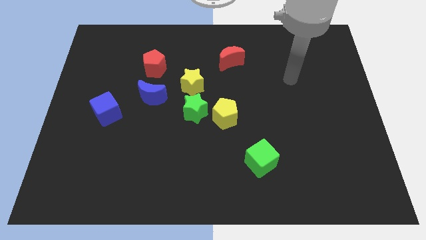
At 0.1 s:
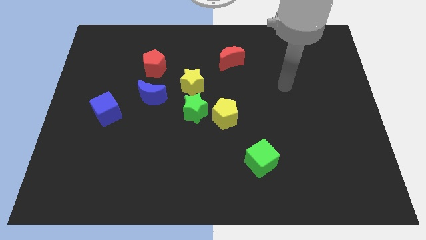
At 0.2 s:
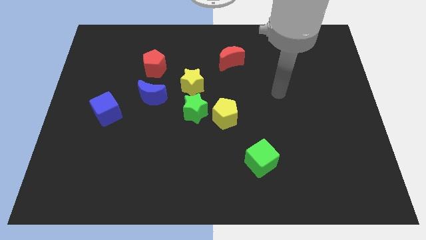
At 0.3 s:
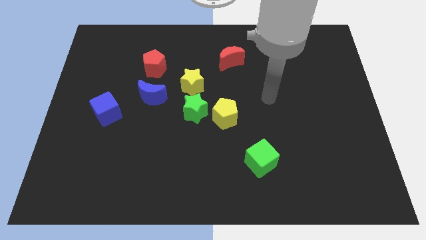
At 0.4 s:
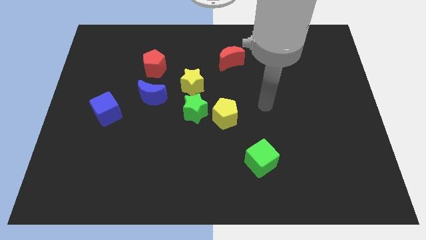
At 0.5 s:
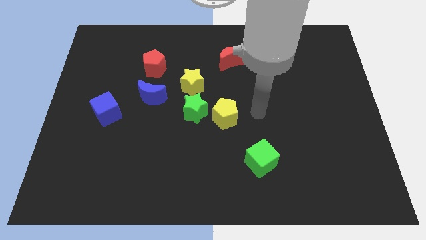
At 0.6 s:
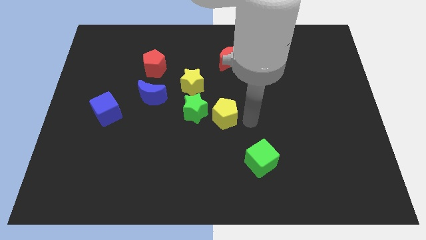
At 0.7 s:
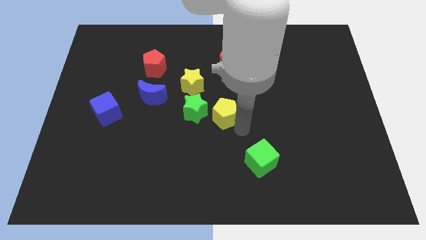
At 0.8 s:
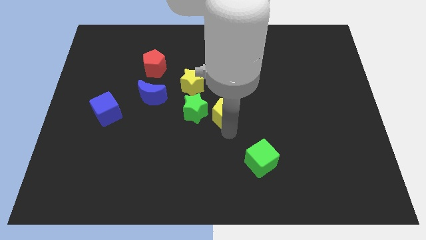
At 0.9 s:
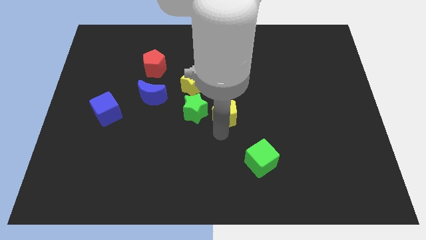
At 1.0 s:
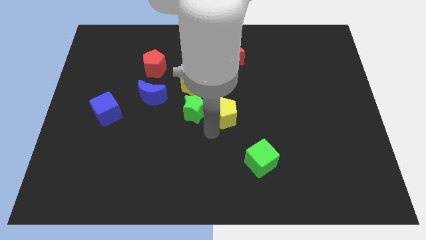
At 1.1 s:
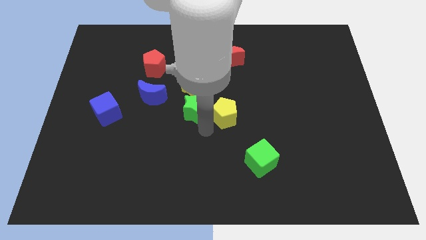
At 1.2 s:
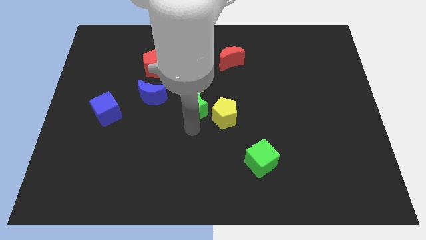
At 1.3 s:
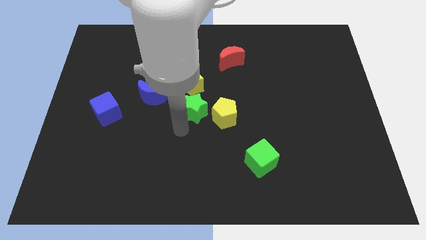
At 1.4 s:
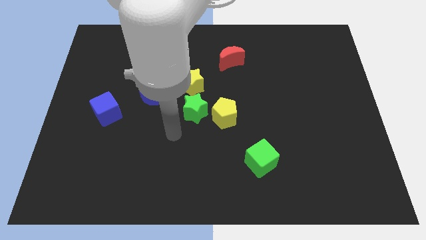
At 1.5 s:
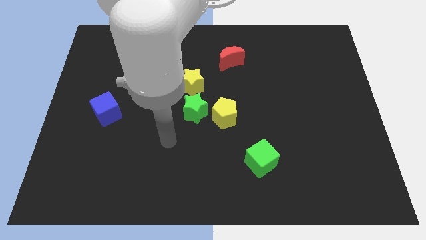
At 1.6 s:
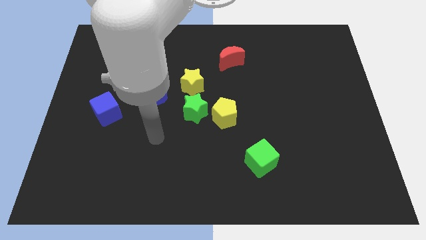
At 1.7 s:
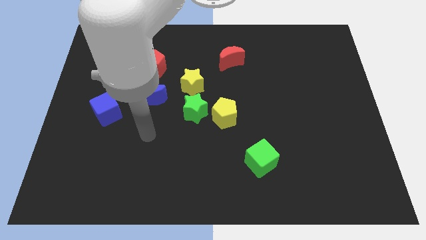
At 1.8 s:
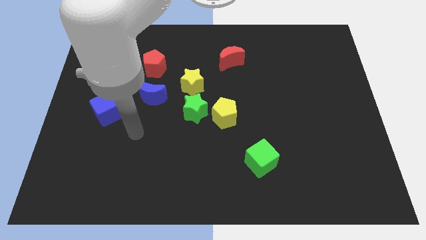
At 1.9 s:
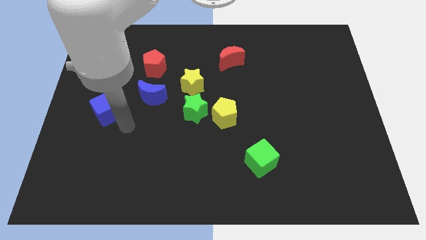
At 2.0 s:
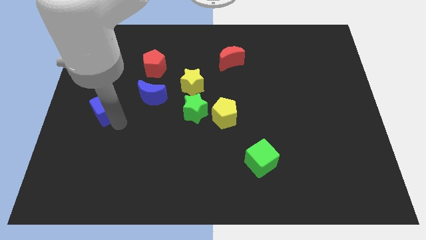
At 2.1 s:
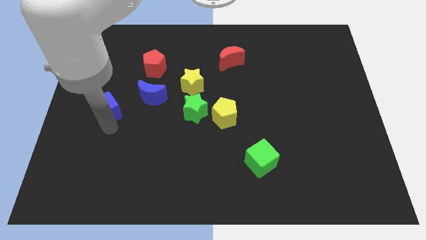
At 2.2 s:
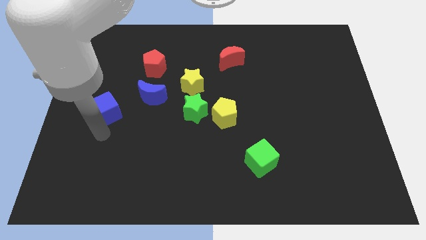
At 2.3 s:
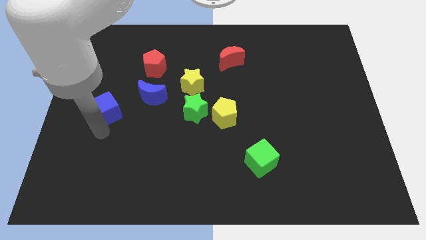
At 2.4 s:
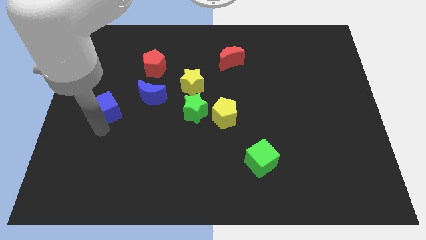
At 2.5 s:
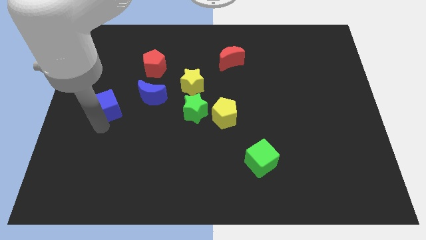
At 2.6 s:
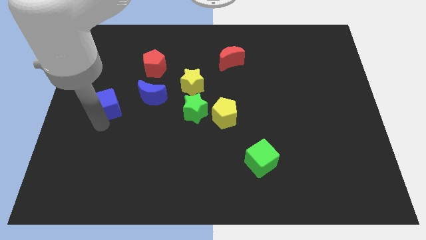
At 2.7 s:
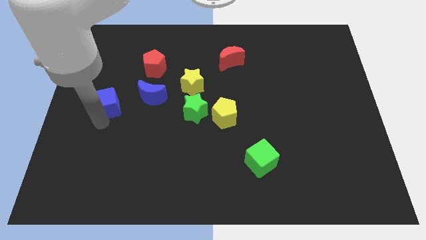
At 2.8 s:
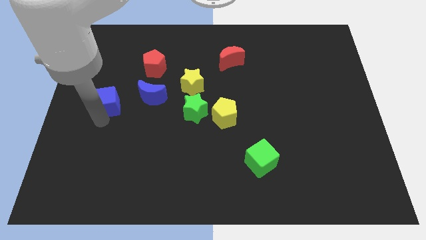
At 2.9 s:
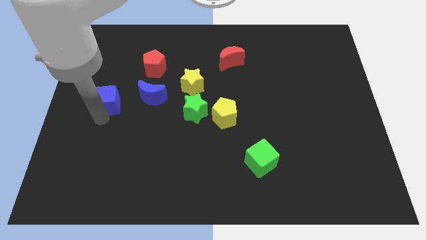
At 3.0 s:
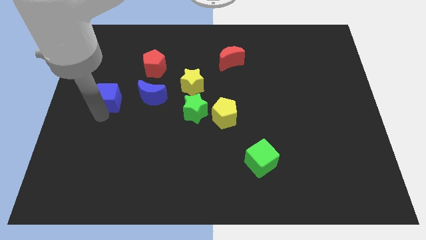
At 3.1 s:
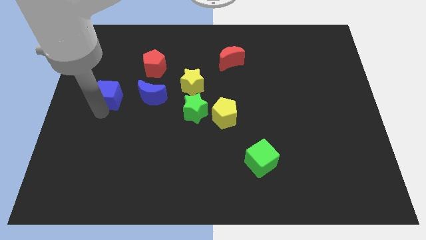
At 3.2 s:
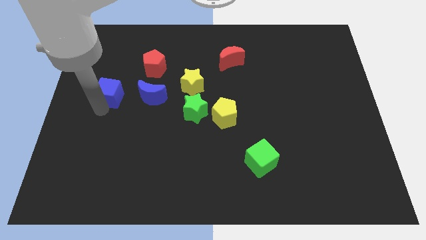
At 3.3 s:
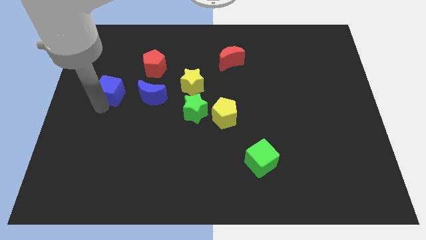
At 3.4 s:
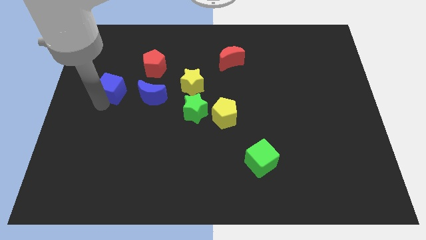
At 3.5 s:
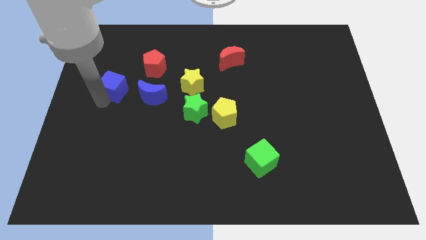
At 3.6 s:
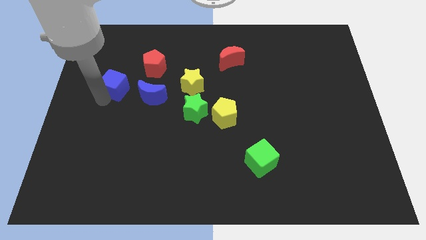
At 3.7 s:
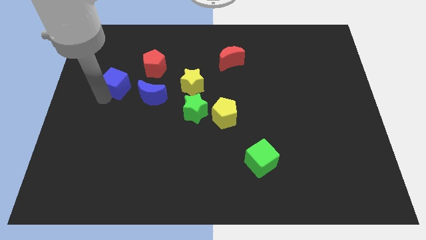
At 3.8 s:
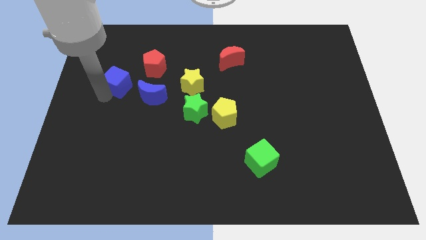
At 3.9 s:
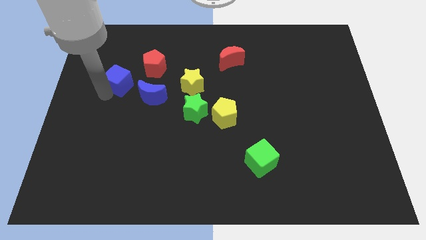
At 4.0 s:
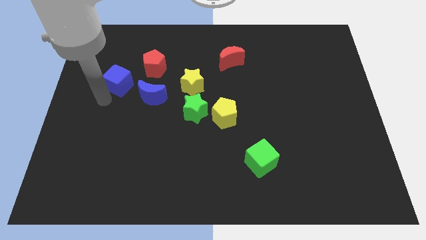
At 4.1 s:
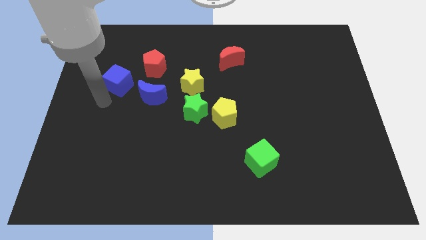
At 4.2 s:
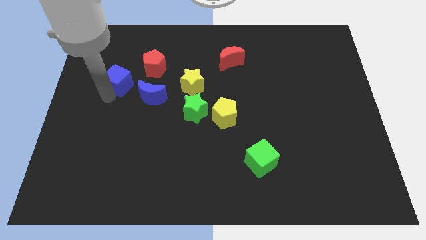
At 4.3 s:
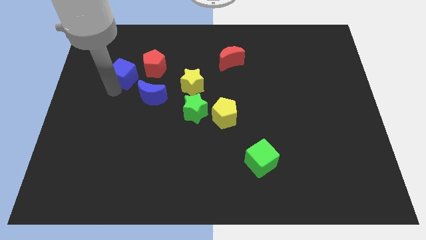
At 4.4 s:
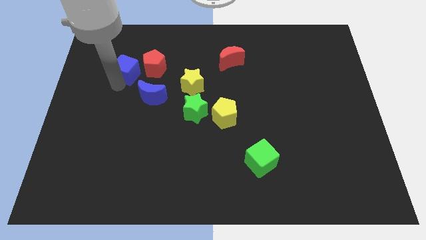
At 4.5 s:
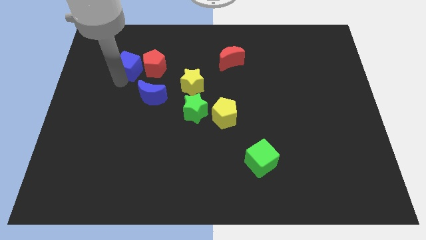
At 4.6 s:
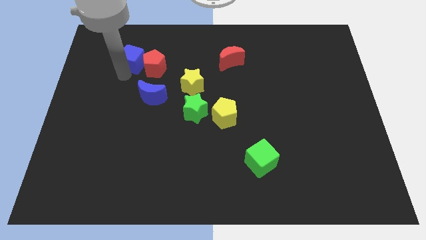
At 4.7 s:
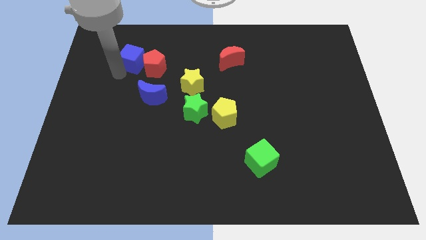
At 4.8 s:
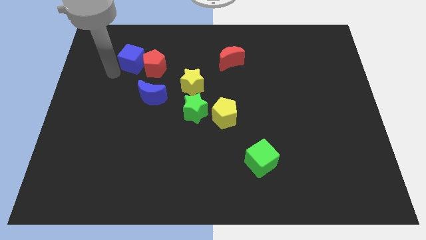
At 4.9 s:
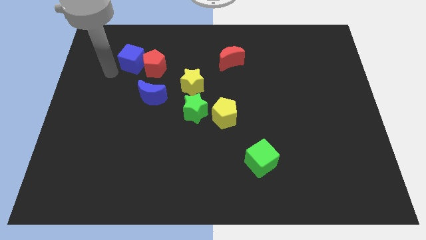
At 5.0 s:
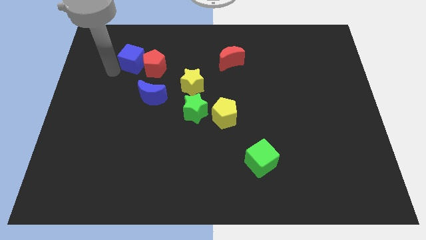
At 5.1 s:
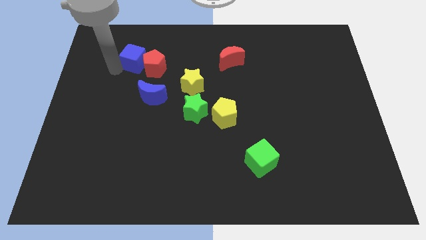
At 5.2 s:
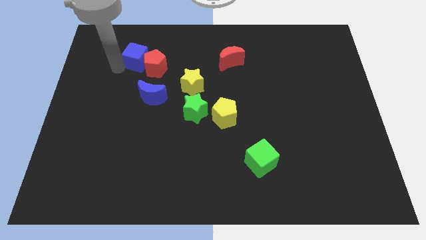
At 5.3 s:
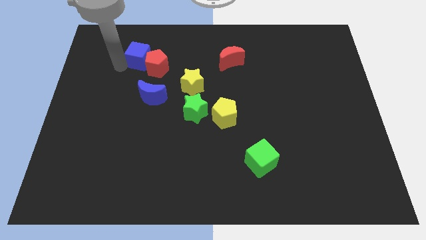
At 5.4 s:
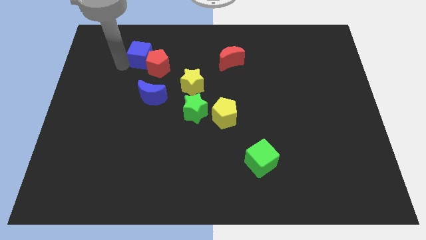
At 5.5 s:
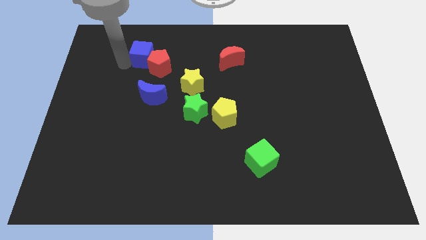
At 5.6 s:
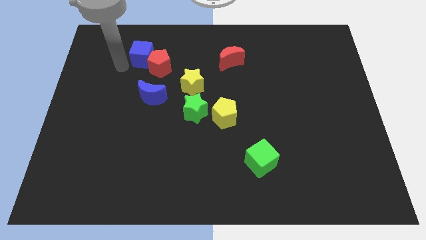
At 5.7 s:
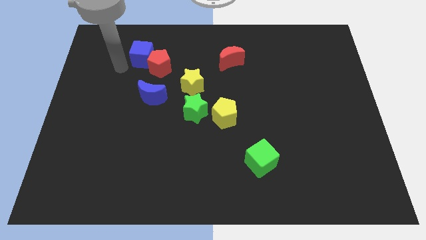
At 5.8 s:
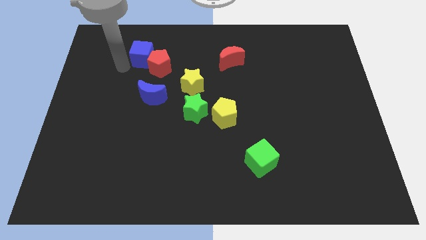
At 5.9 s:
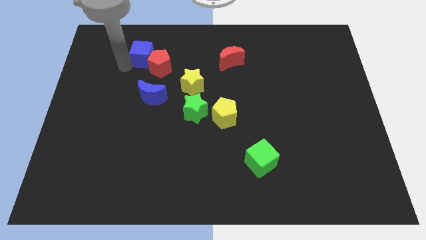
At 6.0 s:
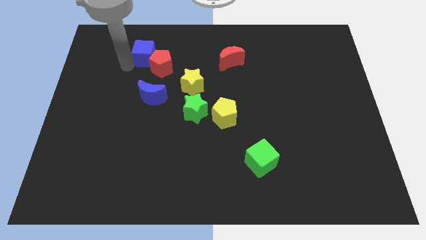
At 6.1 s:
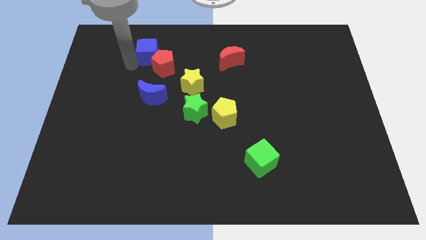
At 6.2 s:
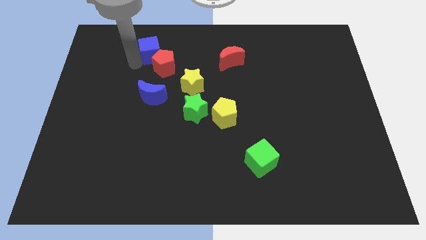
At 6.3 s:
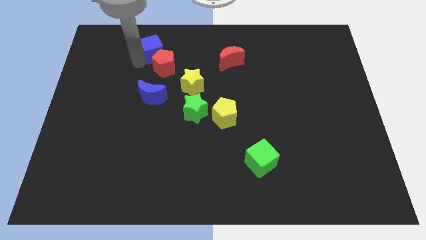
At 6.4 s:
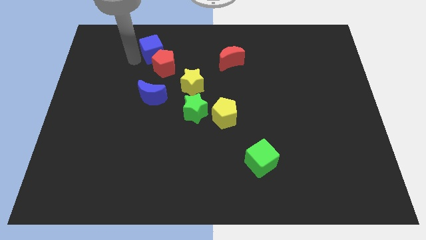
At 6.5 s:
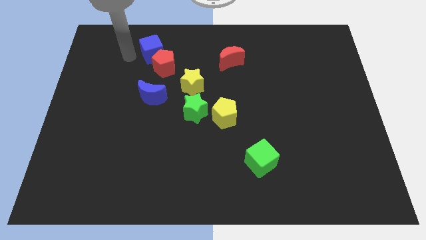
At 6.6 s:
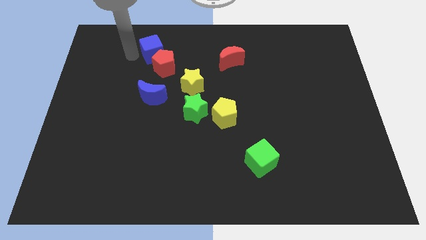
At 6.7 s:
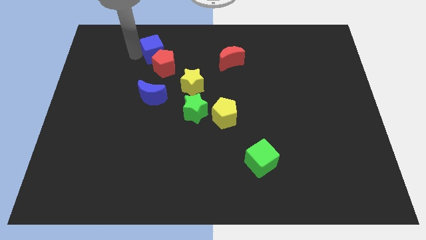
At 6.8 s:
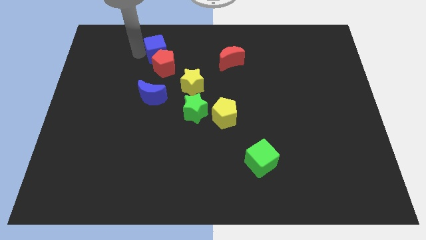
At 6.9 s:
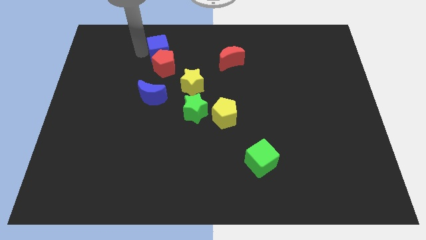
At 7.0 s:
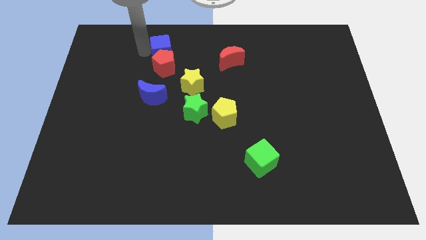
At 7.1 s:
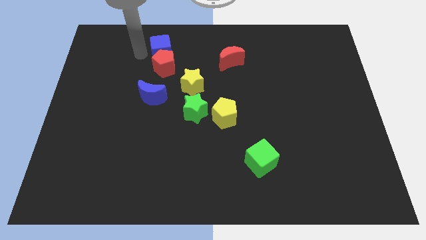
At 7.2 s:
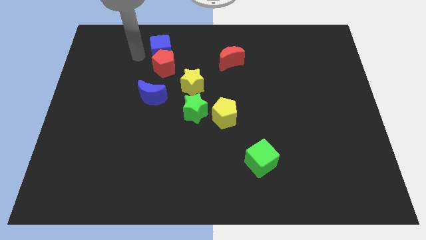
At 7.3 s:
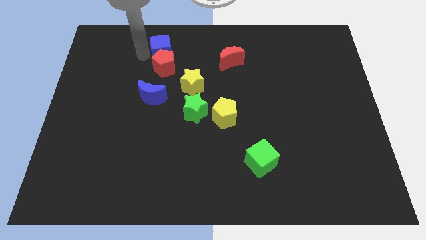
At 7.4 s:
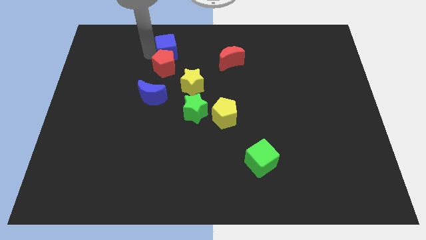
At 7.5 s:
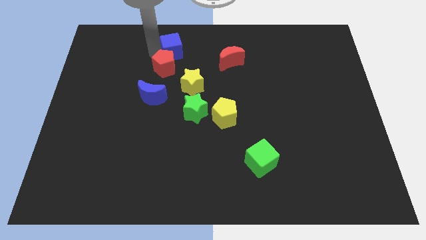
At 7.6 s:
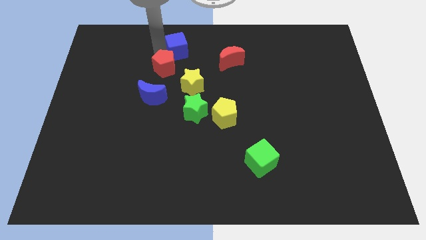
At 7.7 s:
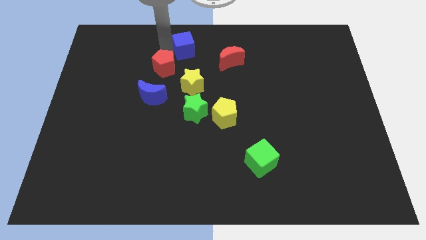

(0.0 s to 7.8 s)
slide the blue cube to the top

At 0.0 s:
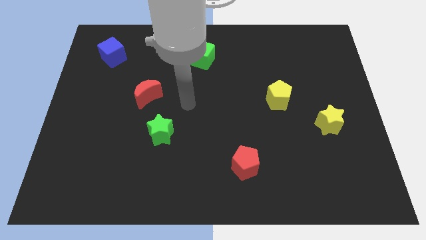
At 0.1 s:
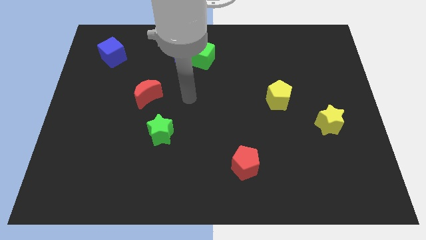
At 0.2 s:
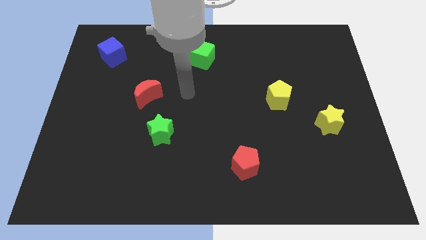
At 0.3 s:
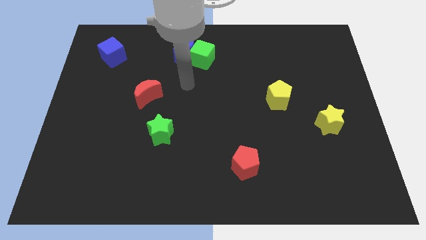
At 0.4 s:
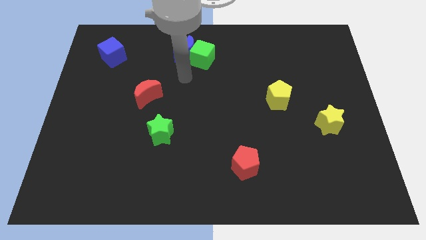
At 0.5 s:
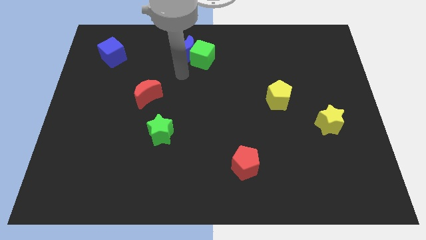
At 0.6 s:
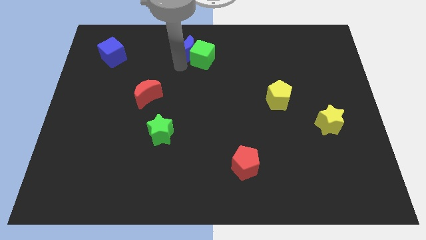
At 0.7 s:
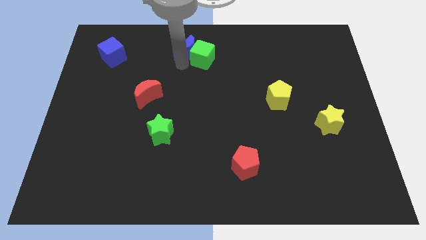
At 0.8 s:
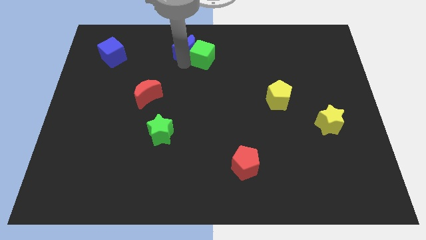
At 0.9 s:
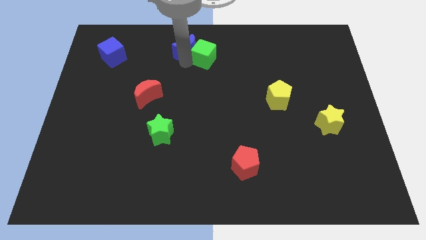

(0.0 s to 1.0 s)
put the green cube to the top
